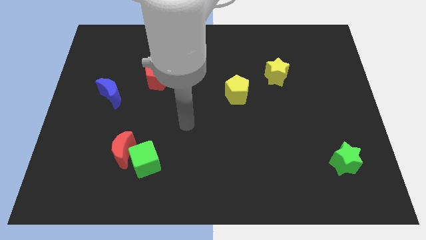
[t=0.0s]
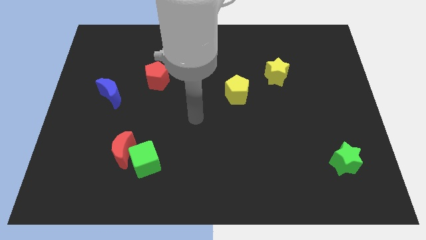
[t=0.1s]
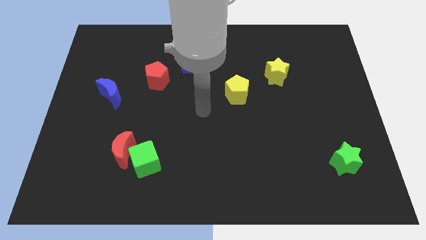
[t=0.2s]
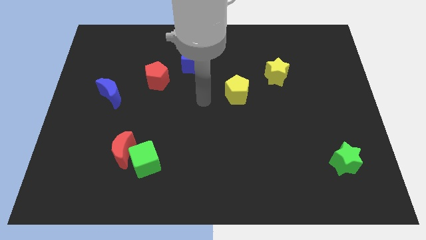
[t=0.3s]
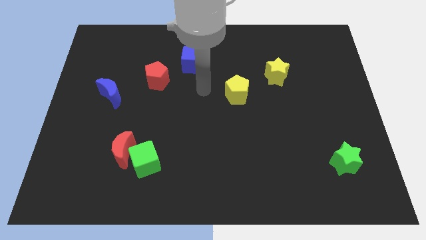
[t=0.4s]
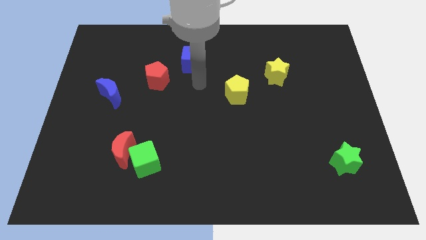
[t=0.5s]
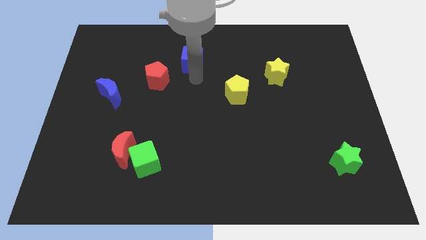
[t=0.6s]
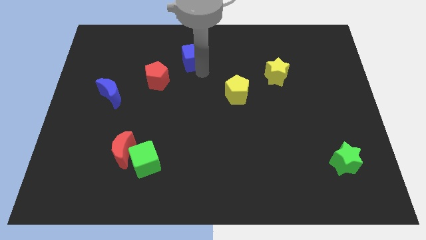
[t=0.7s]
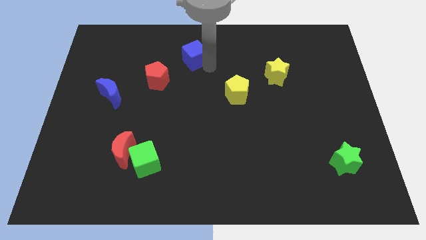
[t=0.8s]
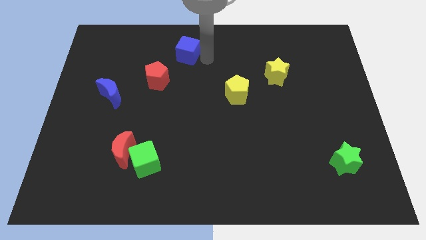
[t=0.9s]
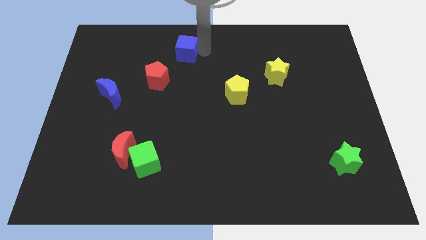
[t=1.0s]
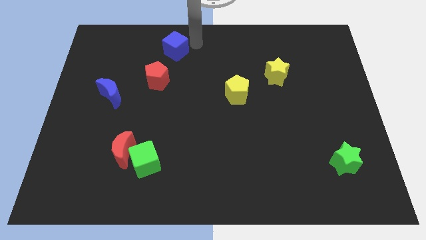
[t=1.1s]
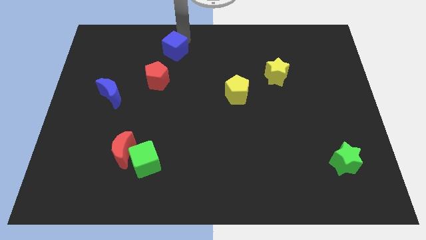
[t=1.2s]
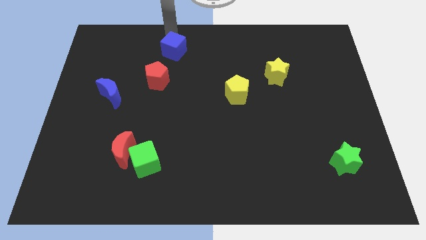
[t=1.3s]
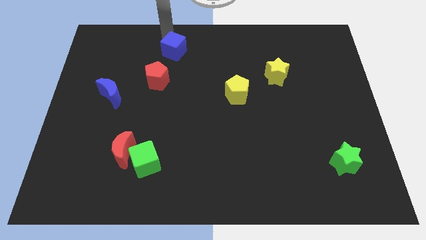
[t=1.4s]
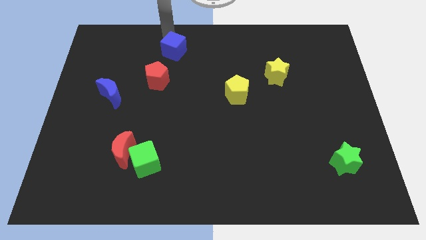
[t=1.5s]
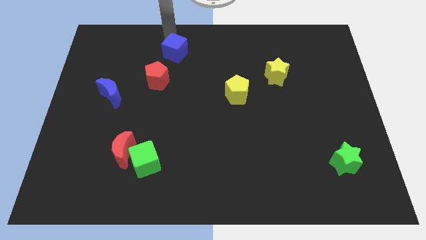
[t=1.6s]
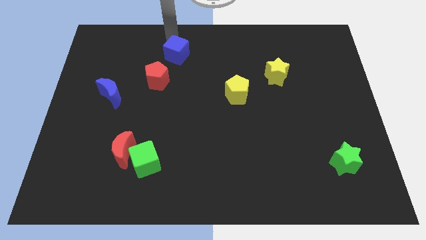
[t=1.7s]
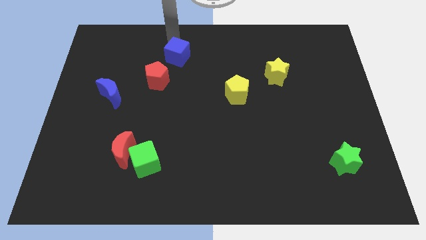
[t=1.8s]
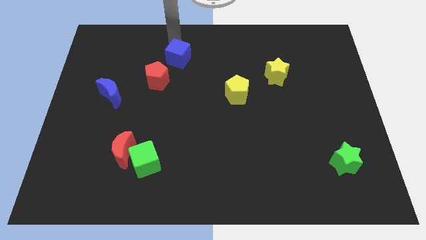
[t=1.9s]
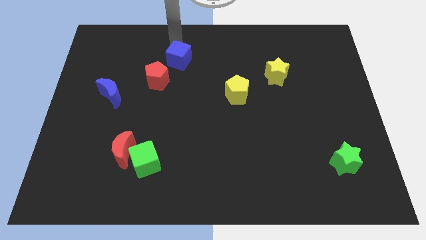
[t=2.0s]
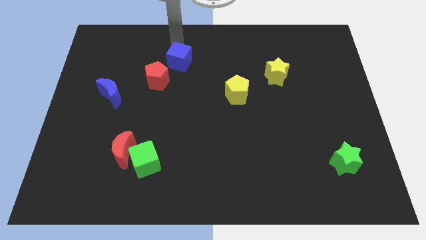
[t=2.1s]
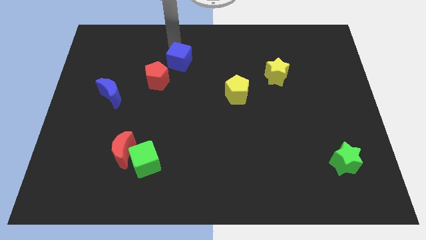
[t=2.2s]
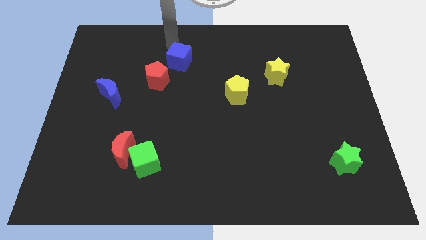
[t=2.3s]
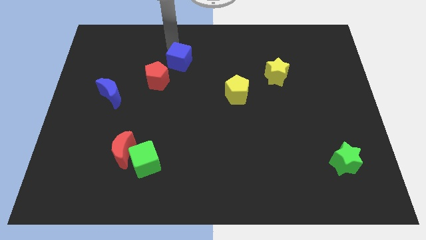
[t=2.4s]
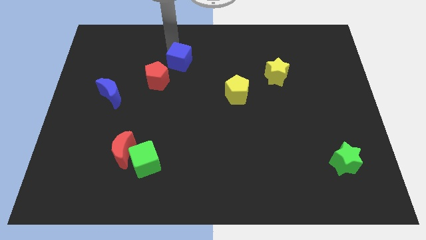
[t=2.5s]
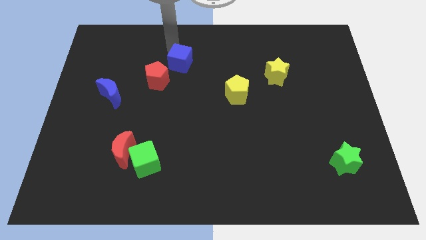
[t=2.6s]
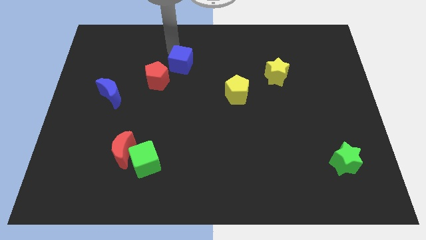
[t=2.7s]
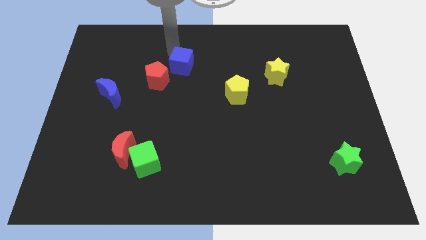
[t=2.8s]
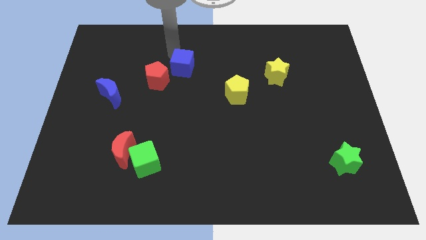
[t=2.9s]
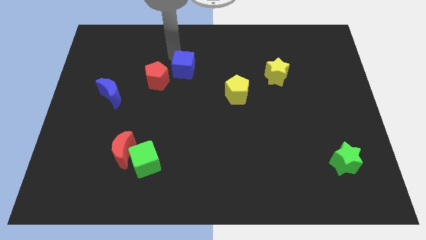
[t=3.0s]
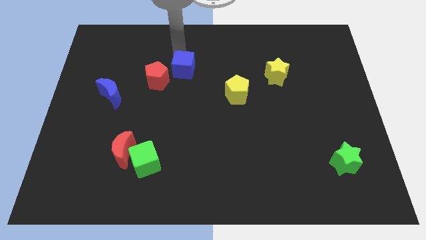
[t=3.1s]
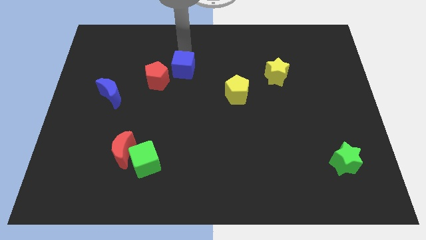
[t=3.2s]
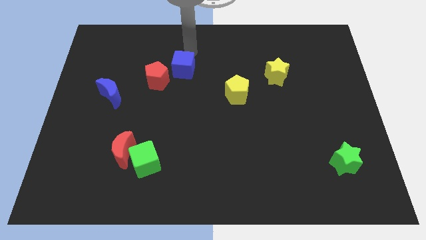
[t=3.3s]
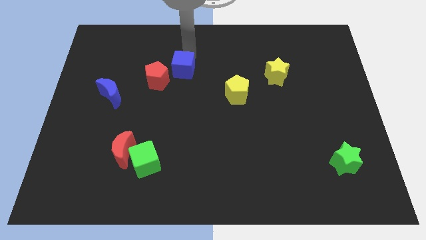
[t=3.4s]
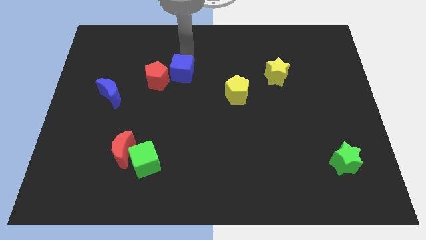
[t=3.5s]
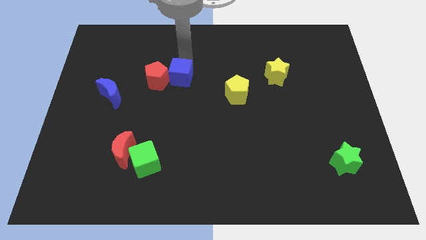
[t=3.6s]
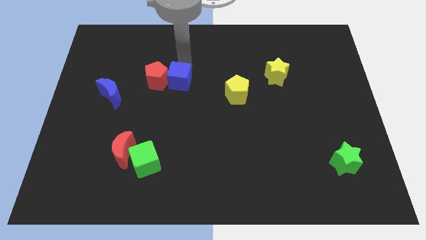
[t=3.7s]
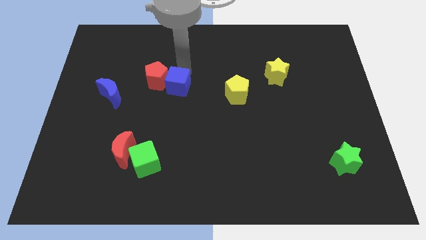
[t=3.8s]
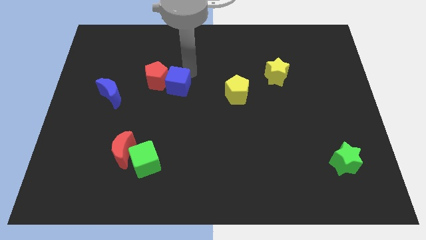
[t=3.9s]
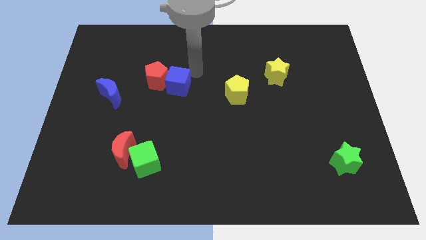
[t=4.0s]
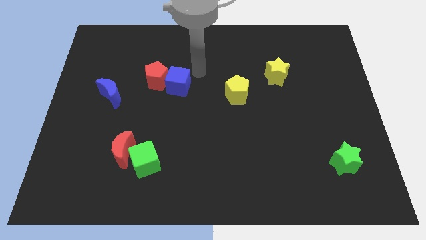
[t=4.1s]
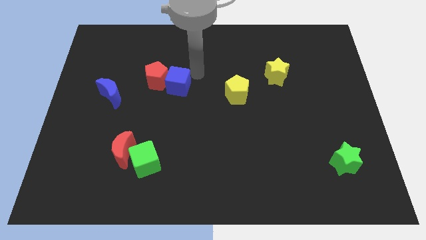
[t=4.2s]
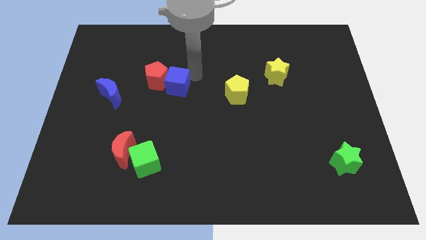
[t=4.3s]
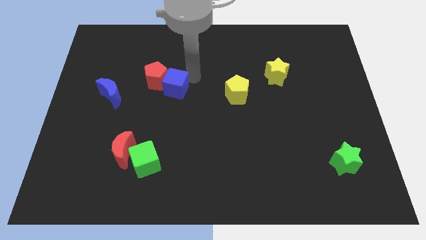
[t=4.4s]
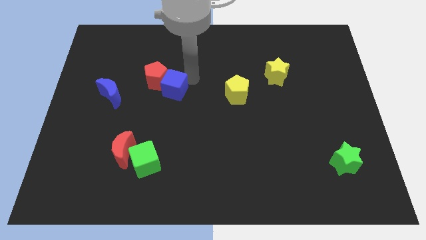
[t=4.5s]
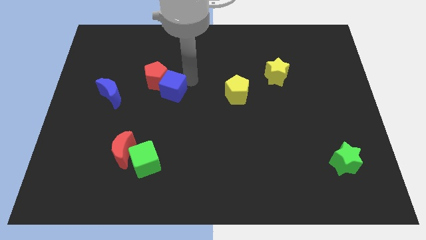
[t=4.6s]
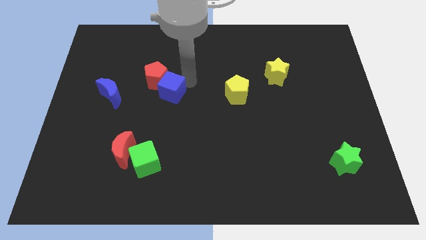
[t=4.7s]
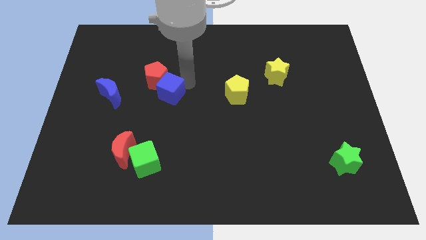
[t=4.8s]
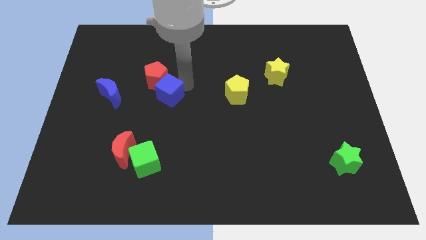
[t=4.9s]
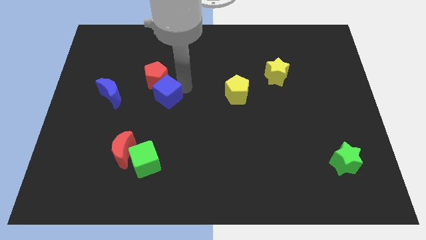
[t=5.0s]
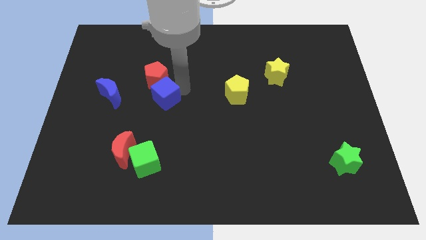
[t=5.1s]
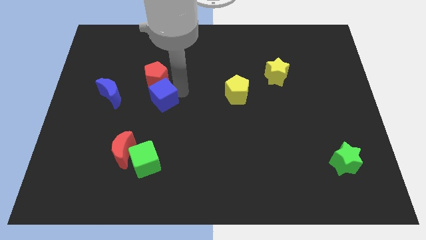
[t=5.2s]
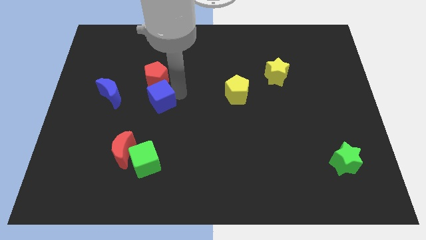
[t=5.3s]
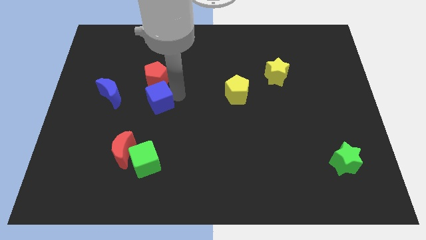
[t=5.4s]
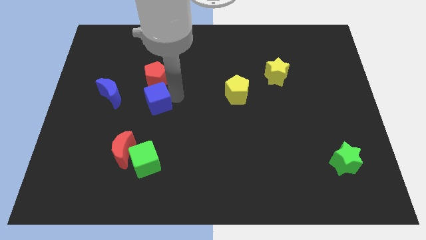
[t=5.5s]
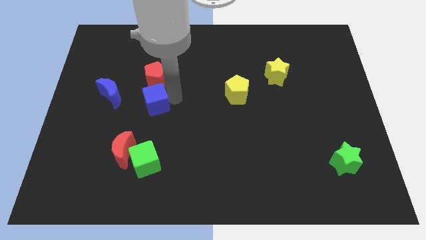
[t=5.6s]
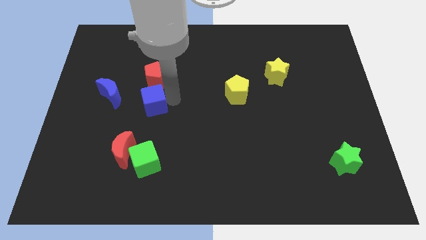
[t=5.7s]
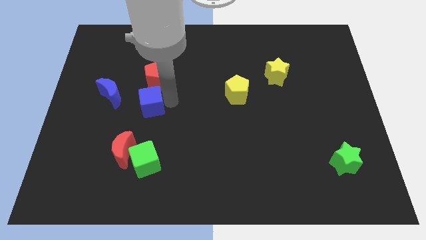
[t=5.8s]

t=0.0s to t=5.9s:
put the blue cube to the top of the red moon

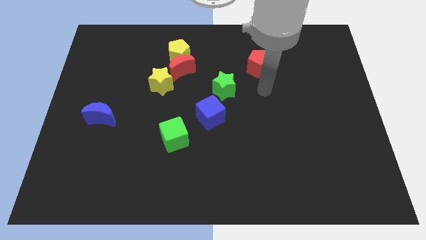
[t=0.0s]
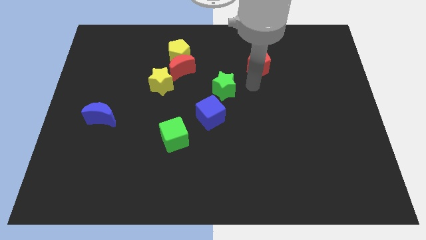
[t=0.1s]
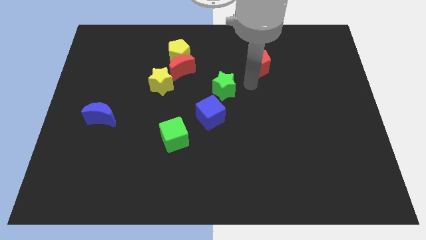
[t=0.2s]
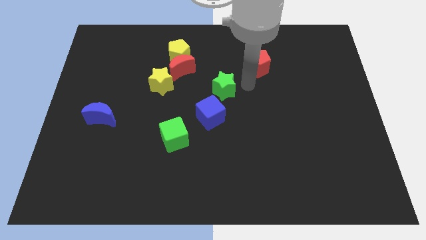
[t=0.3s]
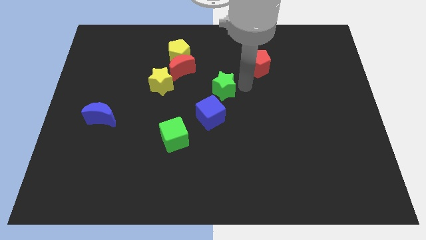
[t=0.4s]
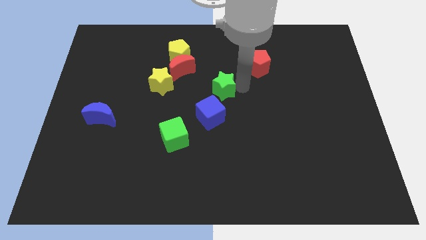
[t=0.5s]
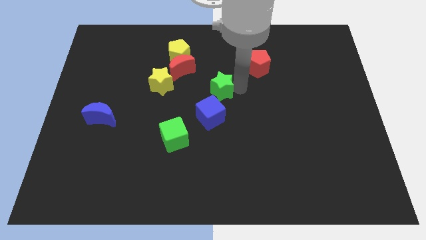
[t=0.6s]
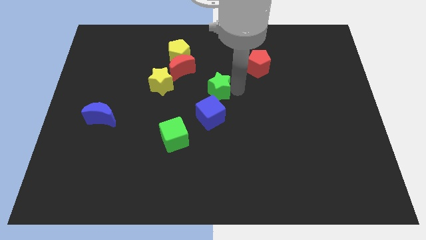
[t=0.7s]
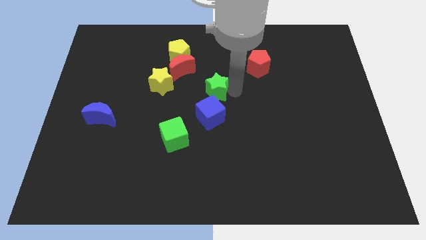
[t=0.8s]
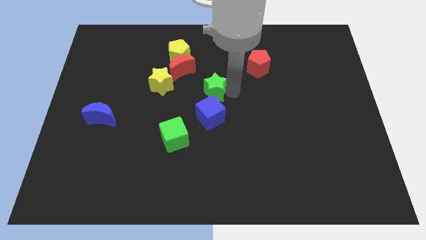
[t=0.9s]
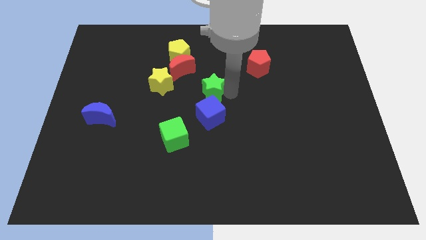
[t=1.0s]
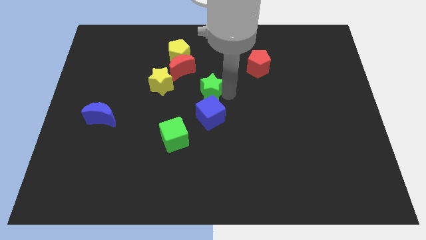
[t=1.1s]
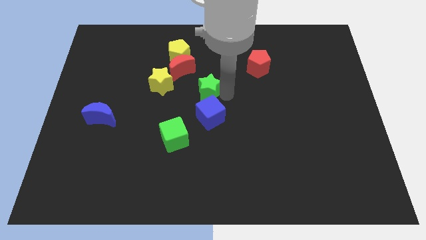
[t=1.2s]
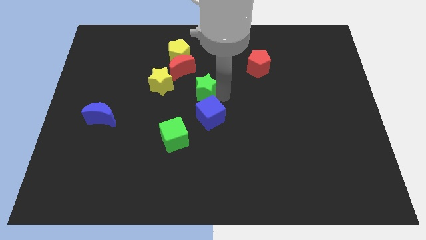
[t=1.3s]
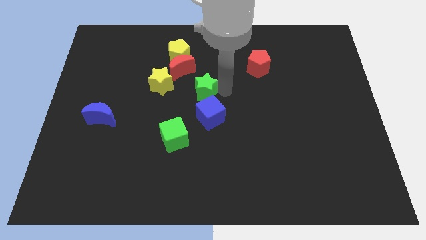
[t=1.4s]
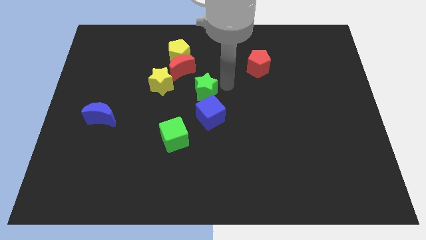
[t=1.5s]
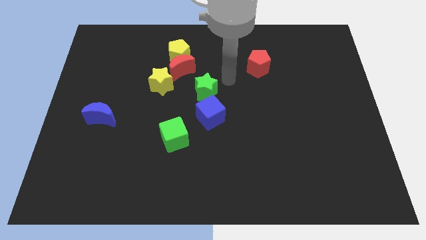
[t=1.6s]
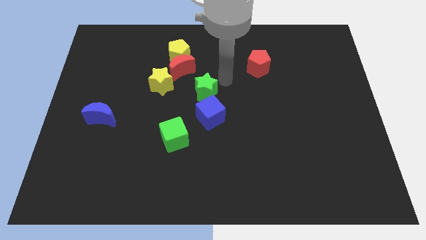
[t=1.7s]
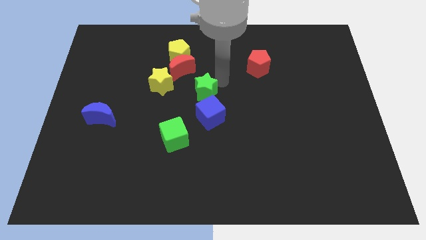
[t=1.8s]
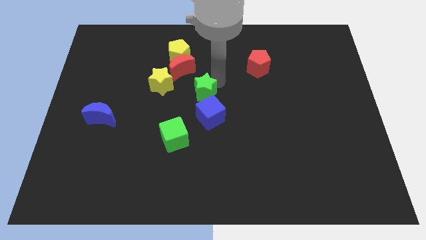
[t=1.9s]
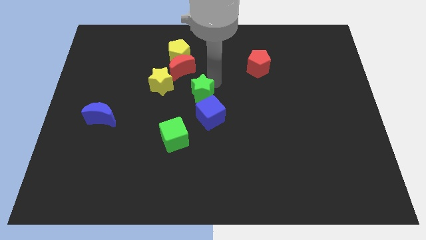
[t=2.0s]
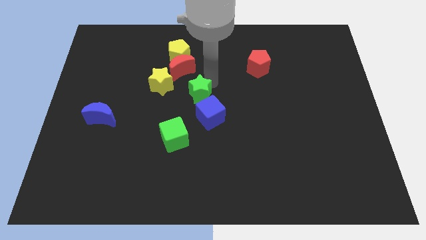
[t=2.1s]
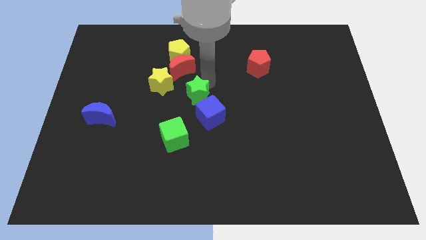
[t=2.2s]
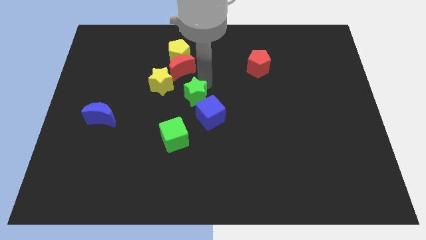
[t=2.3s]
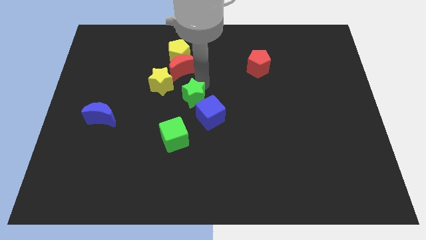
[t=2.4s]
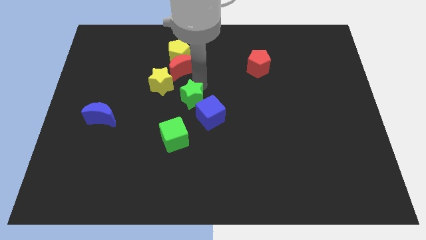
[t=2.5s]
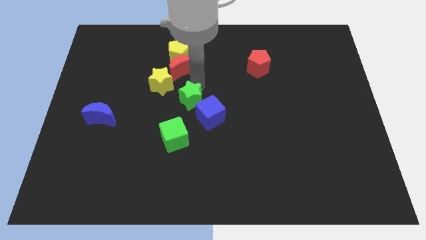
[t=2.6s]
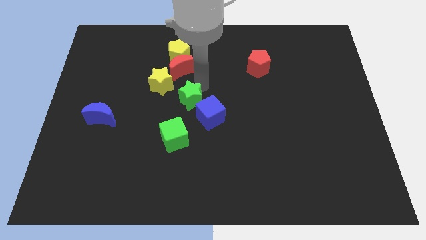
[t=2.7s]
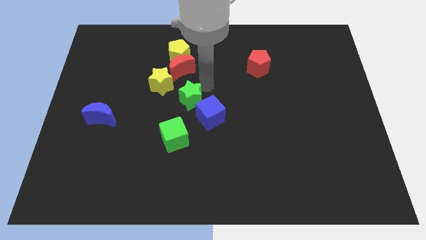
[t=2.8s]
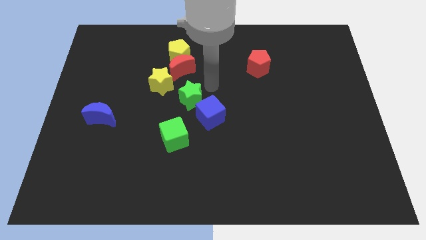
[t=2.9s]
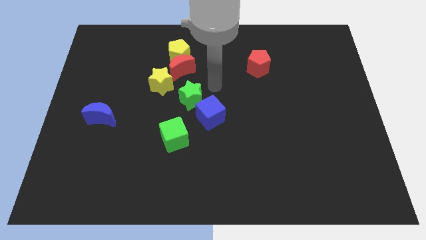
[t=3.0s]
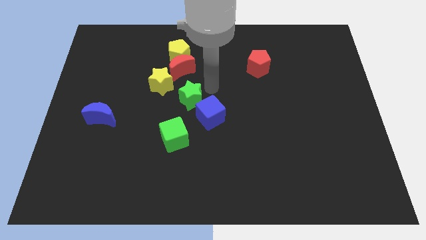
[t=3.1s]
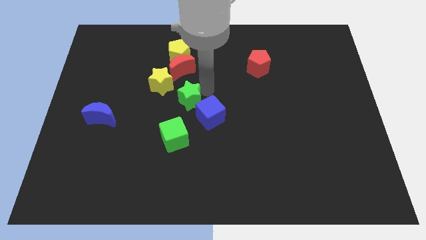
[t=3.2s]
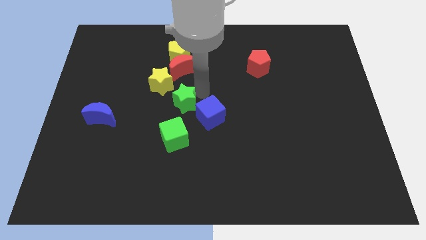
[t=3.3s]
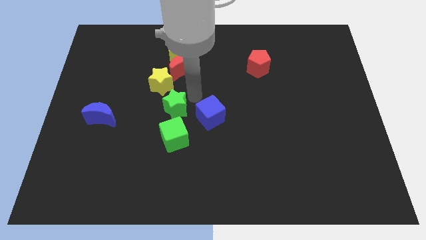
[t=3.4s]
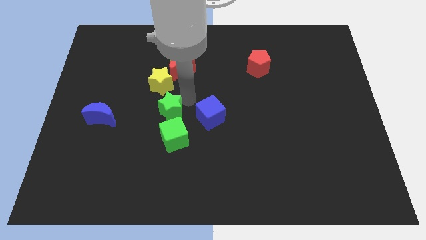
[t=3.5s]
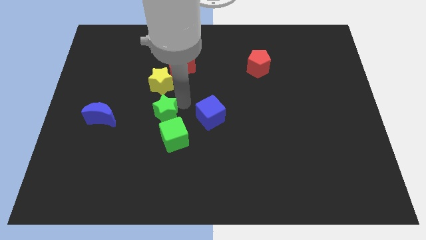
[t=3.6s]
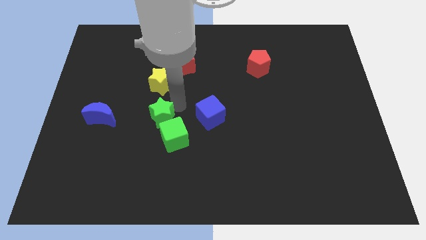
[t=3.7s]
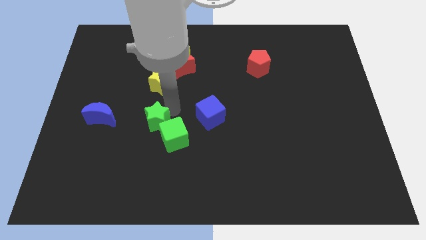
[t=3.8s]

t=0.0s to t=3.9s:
move the green star just left of the green cube
